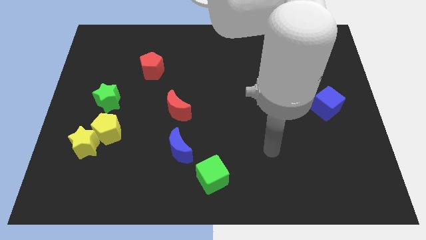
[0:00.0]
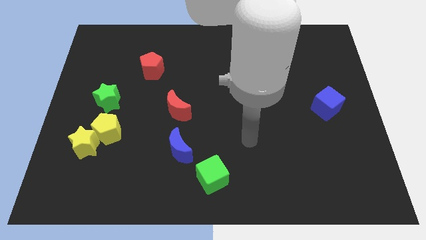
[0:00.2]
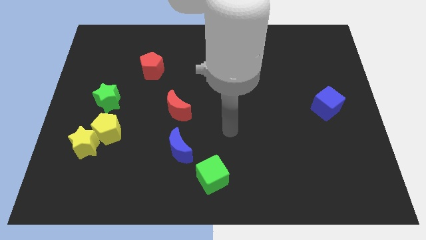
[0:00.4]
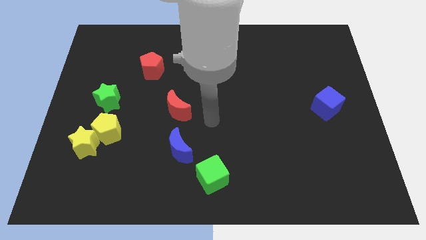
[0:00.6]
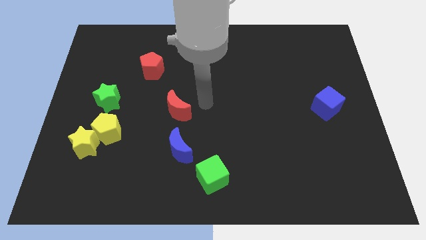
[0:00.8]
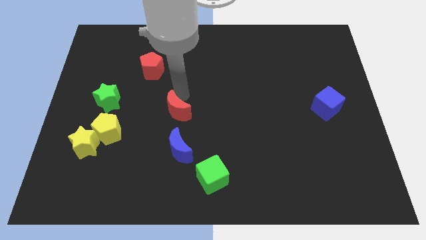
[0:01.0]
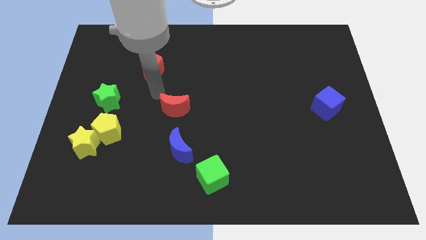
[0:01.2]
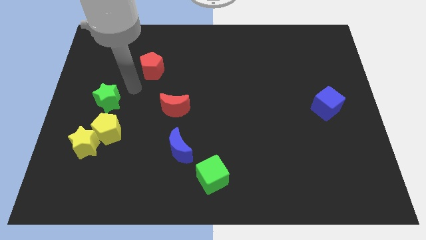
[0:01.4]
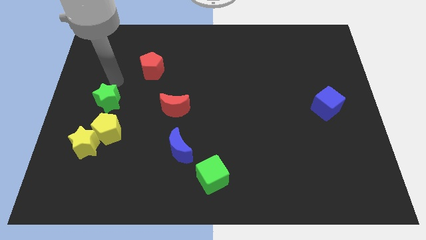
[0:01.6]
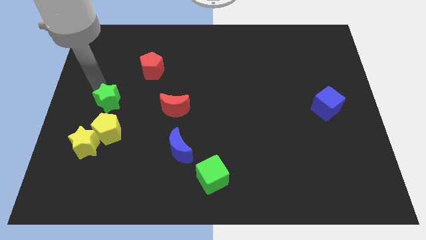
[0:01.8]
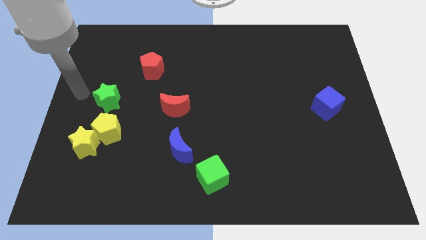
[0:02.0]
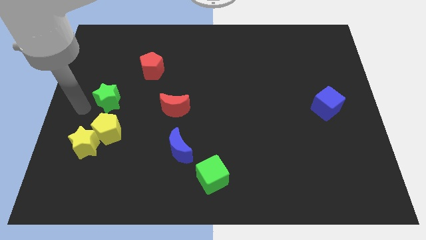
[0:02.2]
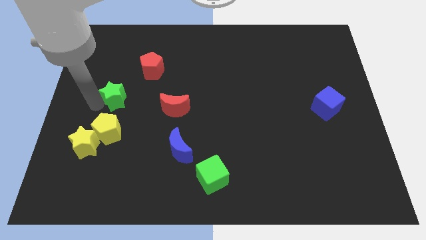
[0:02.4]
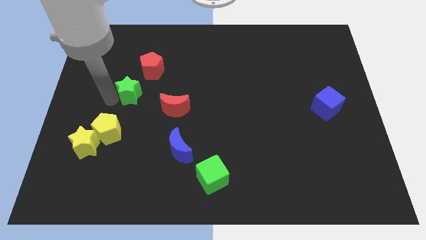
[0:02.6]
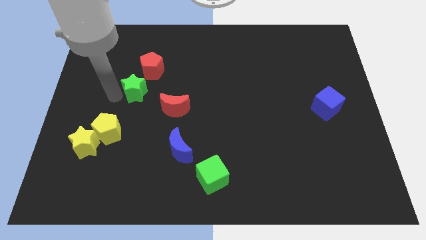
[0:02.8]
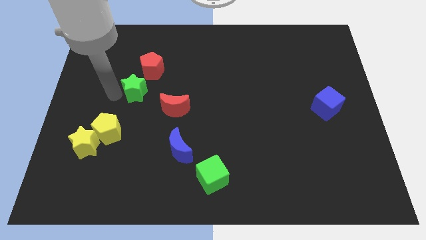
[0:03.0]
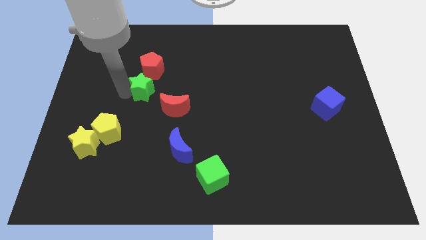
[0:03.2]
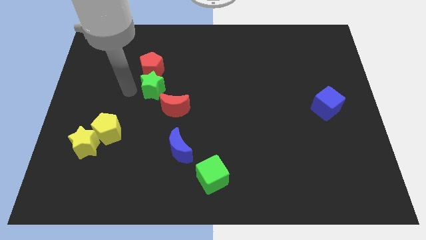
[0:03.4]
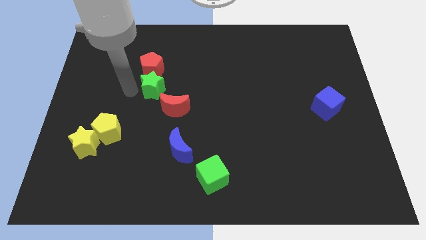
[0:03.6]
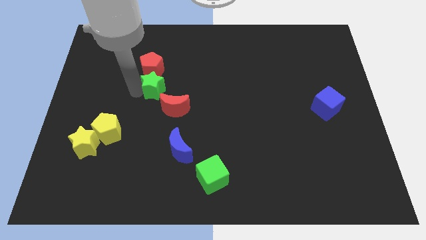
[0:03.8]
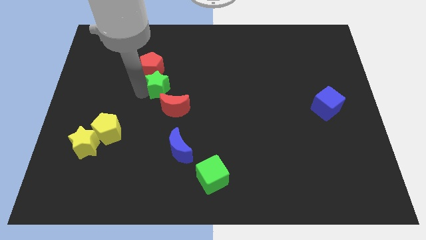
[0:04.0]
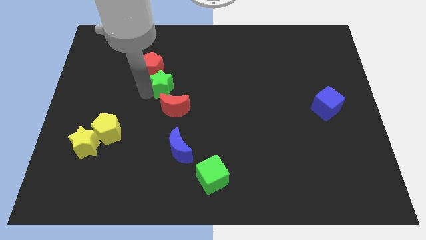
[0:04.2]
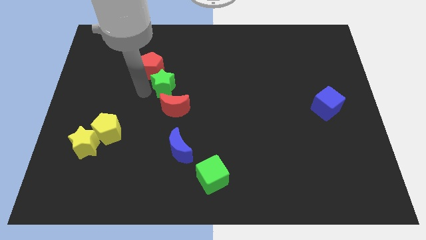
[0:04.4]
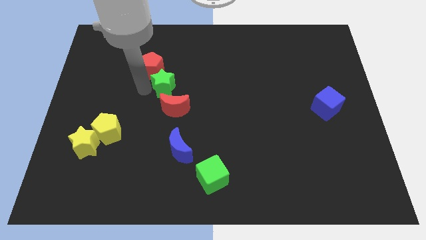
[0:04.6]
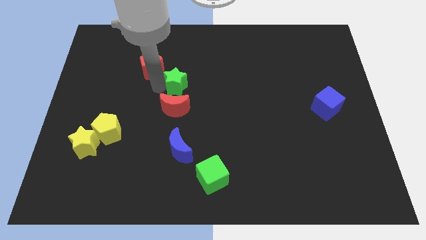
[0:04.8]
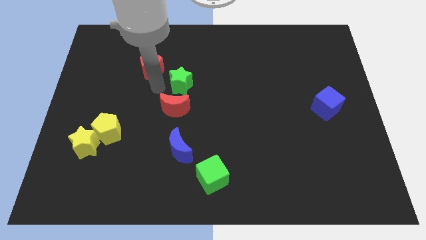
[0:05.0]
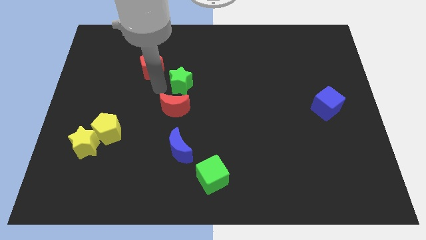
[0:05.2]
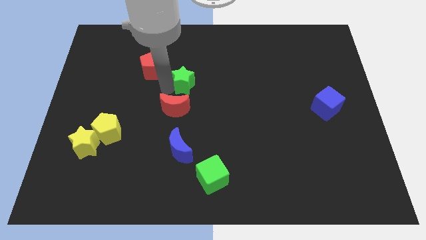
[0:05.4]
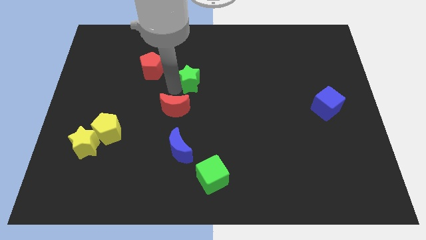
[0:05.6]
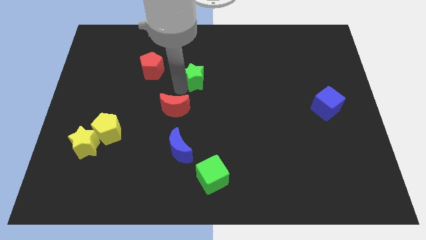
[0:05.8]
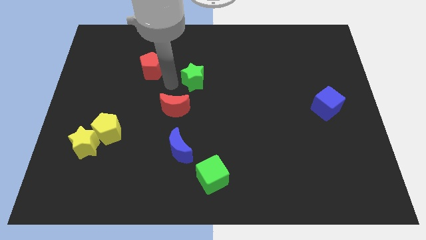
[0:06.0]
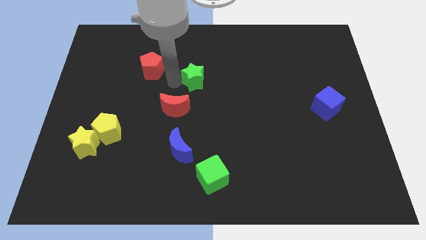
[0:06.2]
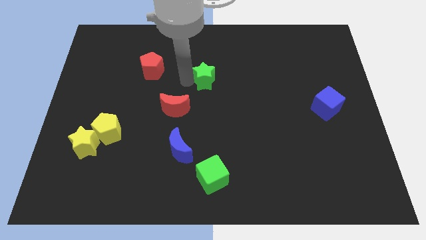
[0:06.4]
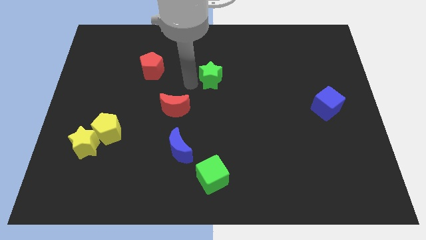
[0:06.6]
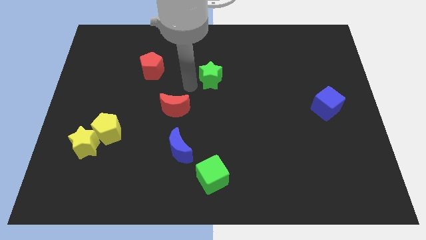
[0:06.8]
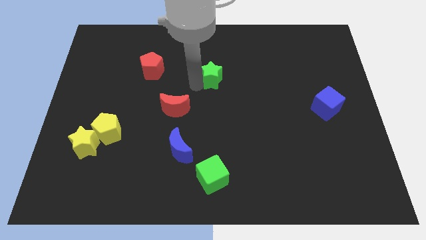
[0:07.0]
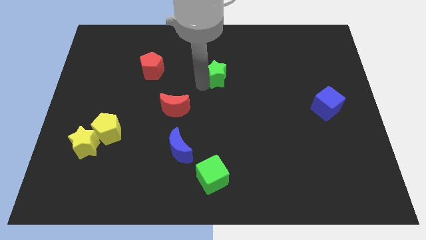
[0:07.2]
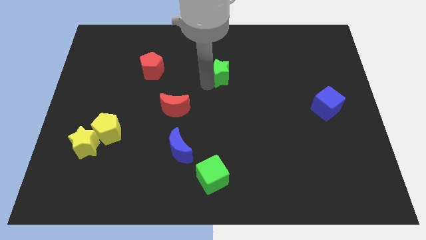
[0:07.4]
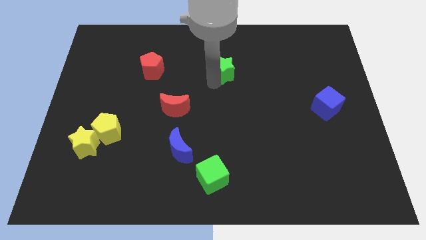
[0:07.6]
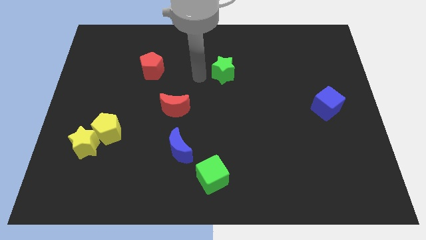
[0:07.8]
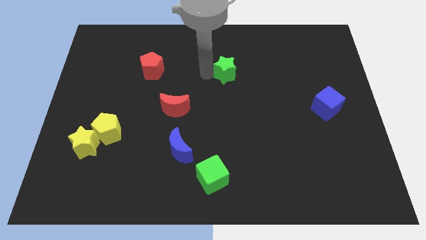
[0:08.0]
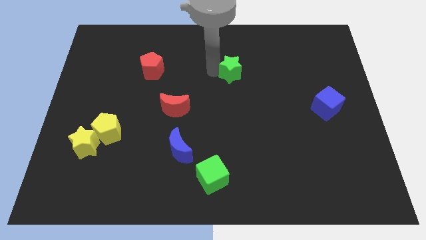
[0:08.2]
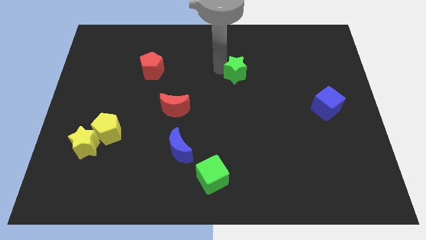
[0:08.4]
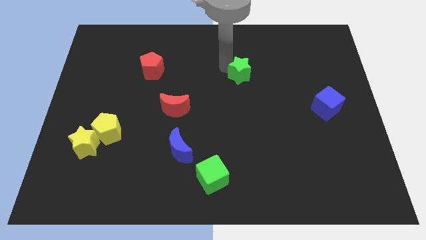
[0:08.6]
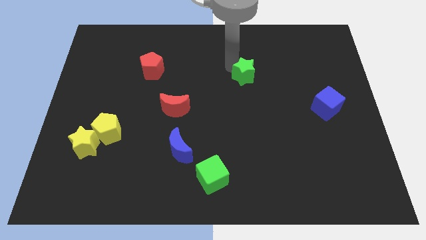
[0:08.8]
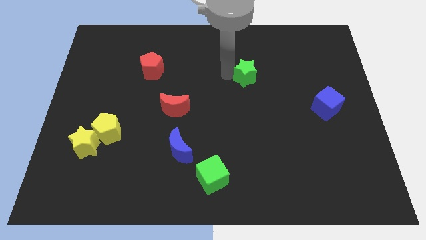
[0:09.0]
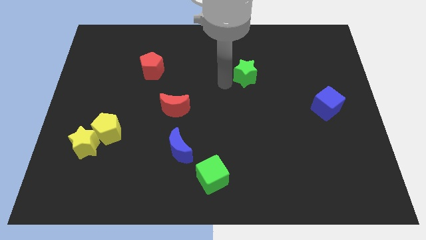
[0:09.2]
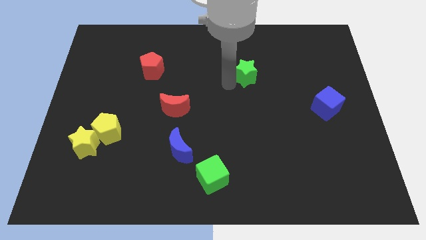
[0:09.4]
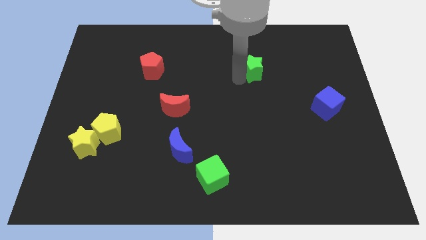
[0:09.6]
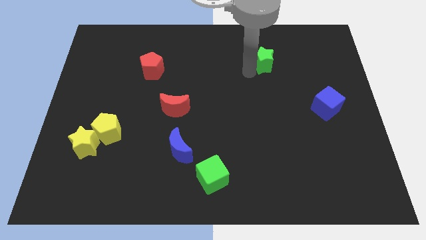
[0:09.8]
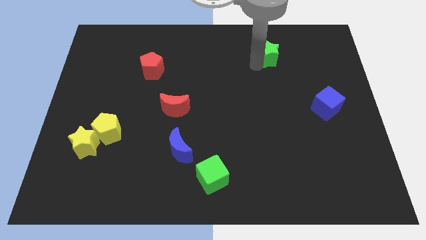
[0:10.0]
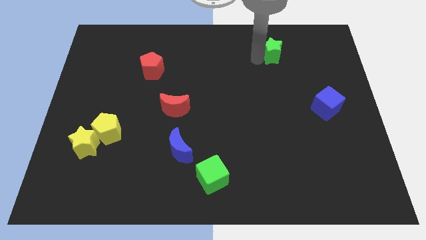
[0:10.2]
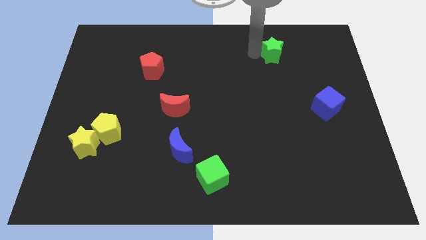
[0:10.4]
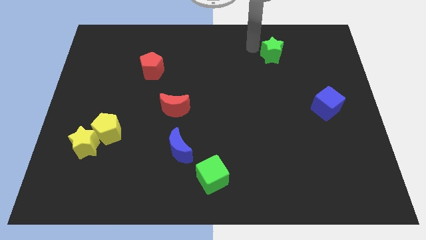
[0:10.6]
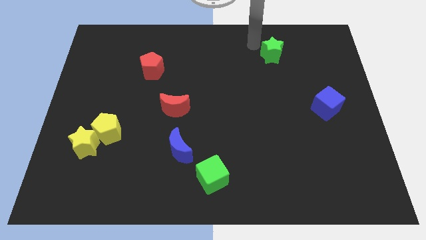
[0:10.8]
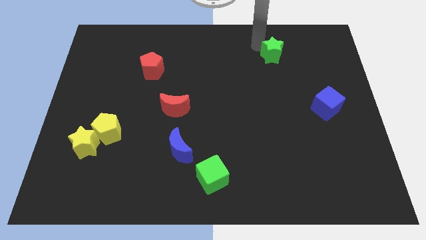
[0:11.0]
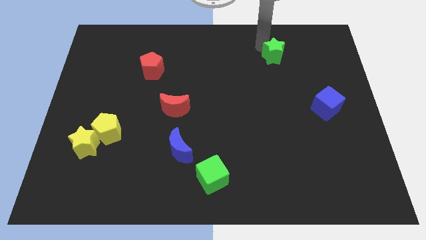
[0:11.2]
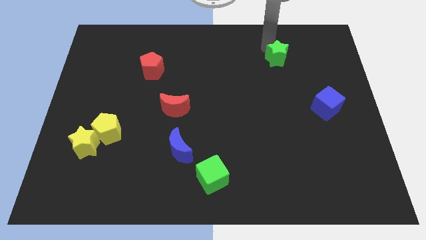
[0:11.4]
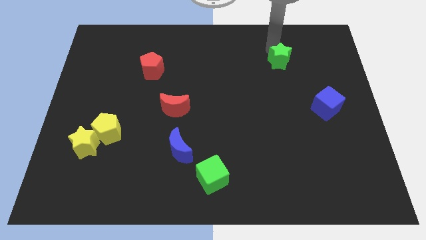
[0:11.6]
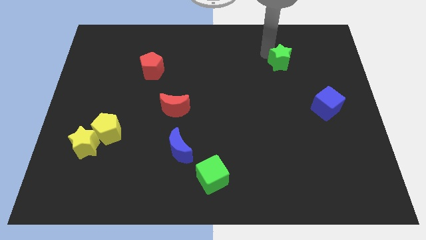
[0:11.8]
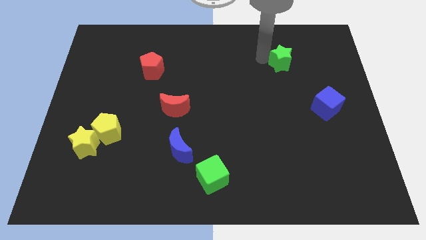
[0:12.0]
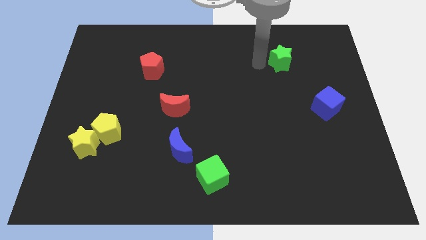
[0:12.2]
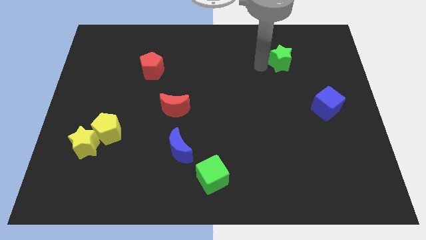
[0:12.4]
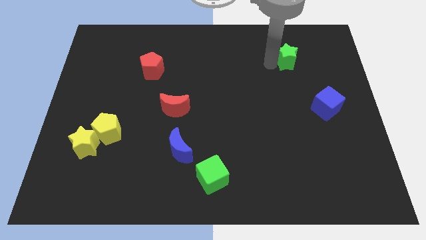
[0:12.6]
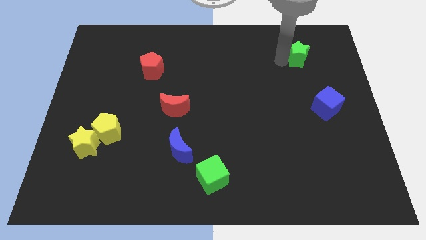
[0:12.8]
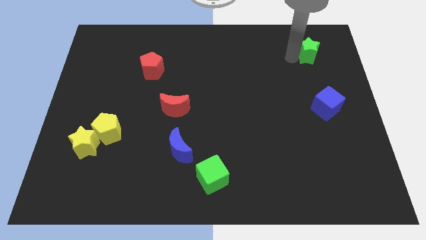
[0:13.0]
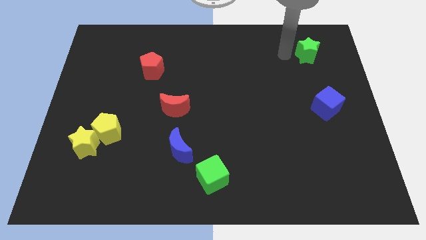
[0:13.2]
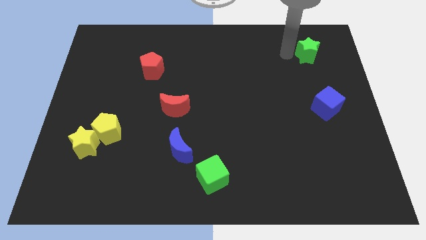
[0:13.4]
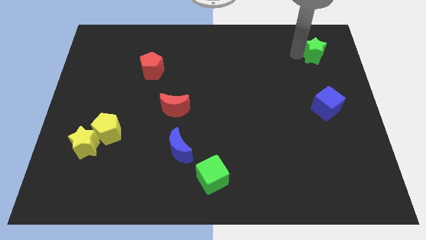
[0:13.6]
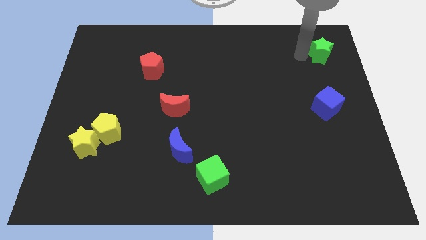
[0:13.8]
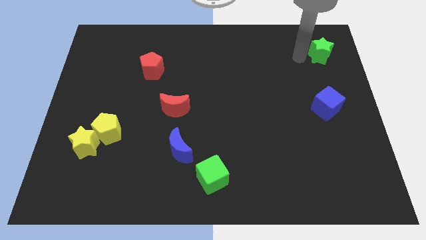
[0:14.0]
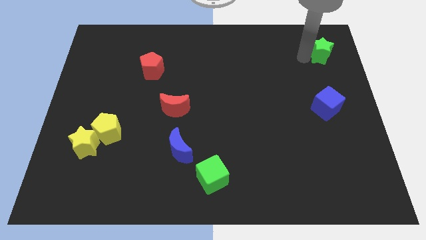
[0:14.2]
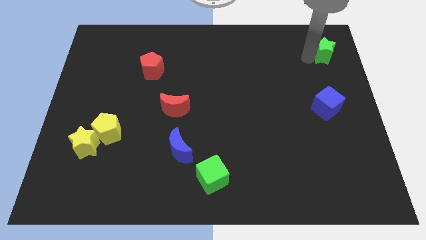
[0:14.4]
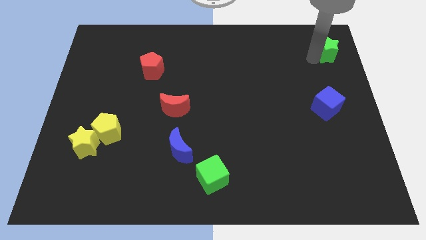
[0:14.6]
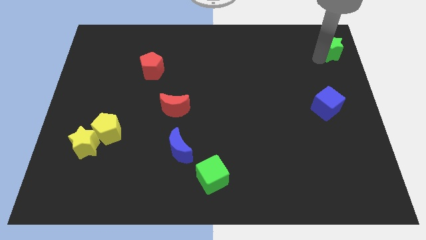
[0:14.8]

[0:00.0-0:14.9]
put the green star to the top right of the board
